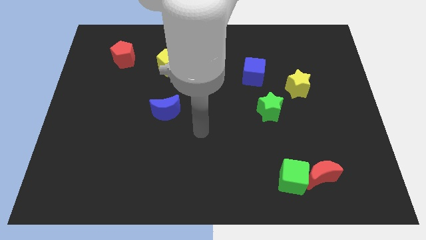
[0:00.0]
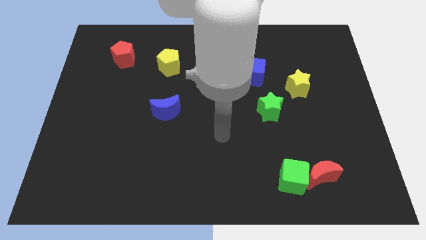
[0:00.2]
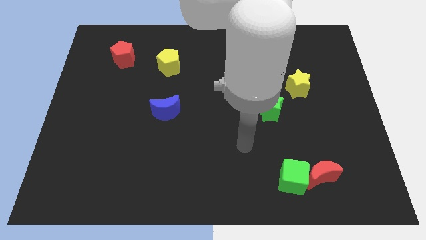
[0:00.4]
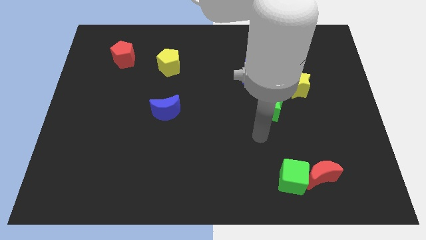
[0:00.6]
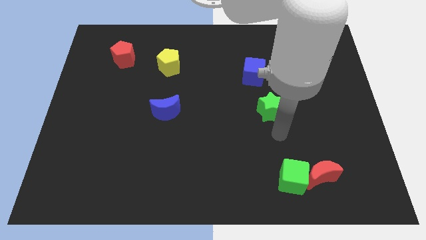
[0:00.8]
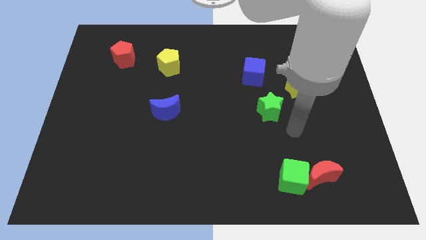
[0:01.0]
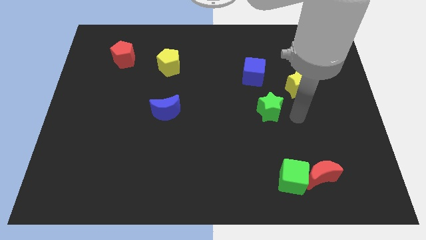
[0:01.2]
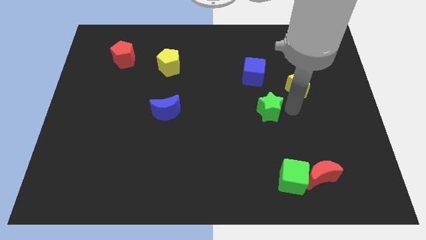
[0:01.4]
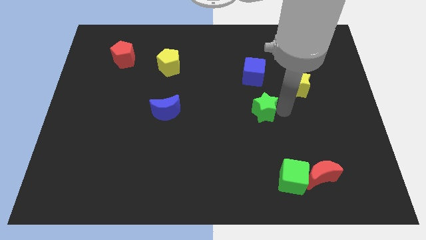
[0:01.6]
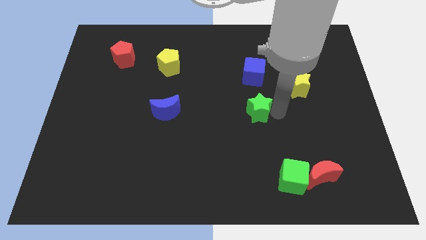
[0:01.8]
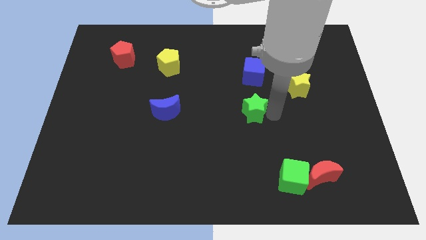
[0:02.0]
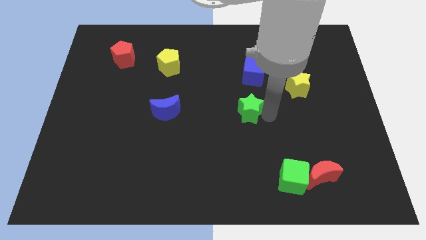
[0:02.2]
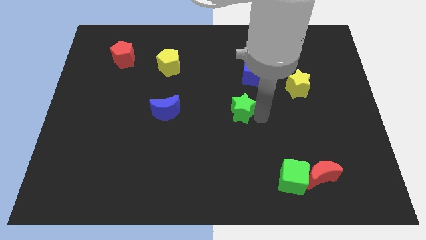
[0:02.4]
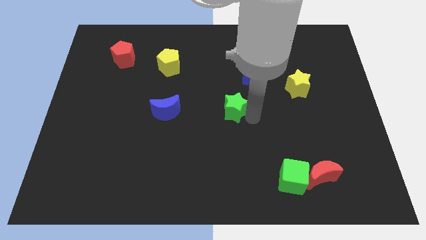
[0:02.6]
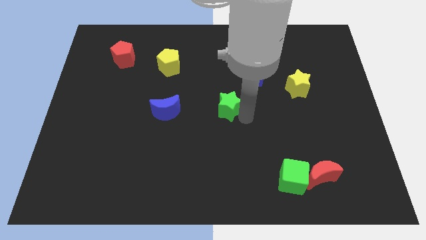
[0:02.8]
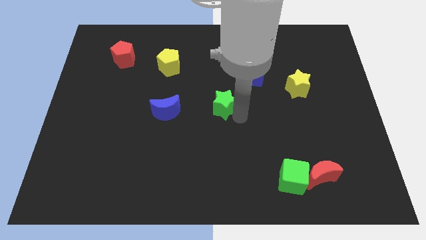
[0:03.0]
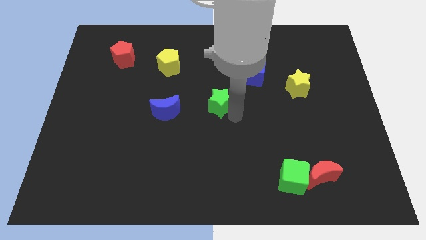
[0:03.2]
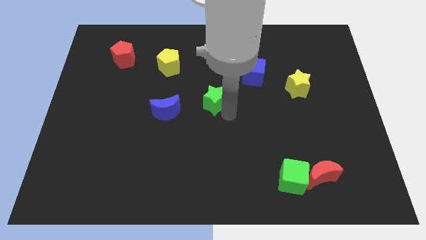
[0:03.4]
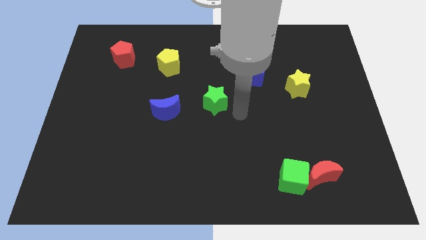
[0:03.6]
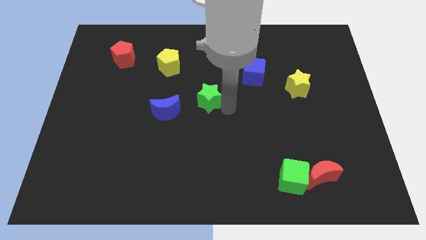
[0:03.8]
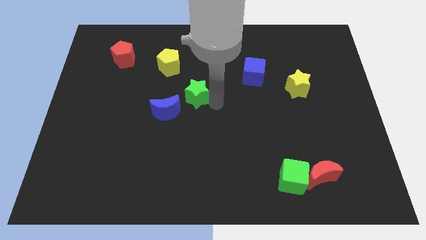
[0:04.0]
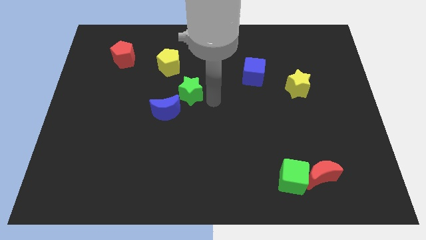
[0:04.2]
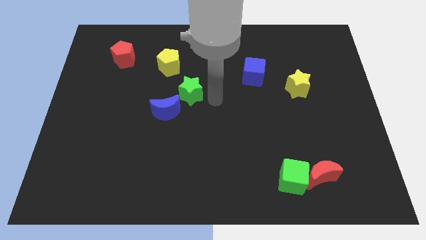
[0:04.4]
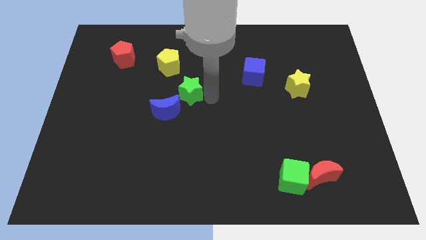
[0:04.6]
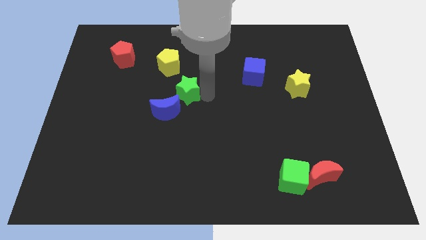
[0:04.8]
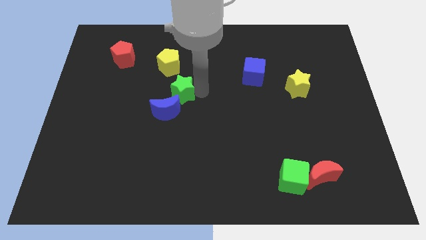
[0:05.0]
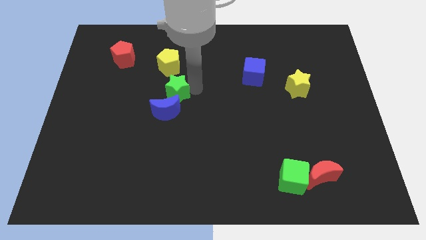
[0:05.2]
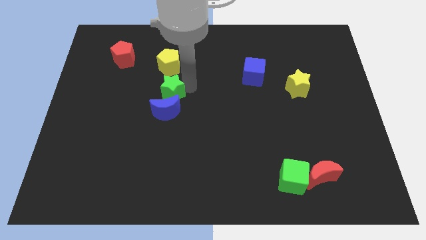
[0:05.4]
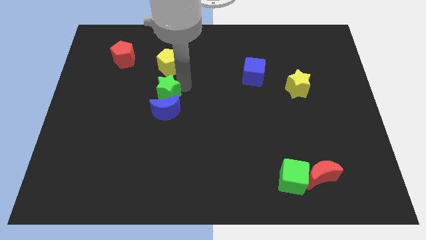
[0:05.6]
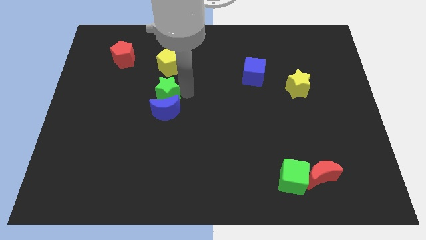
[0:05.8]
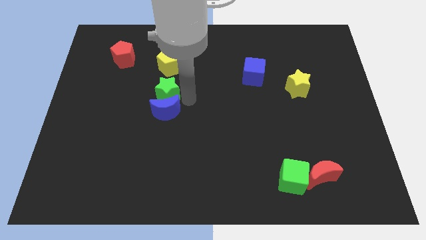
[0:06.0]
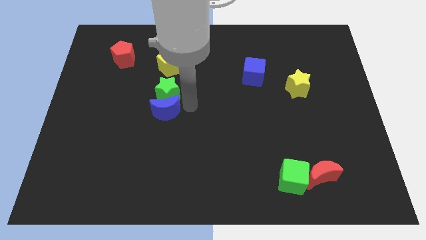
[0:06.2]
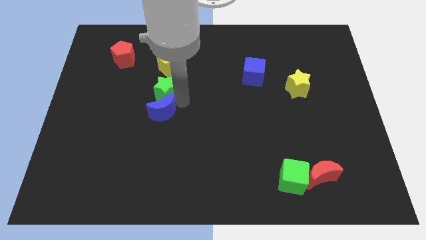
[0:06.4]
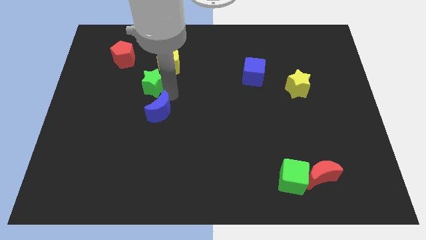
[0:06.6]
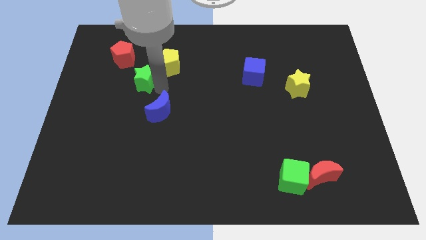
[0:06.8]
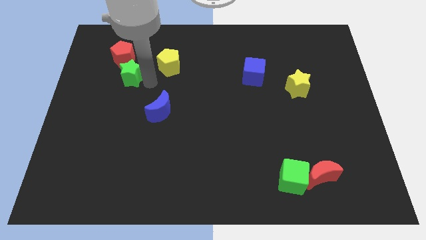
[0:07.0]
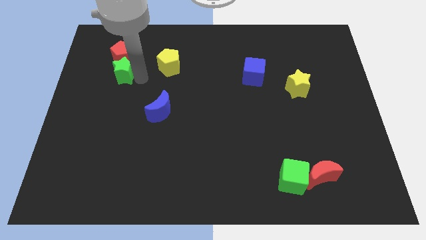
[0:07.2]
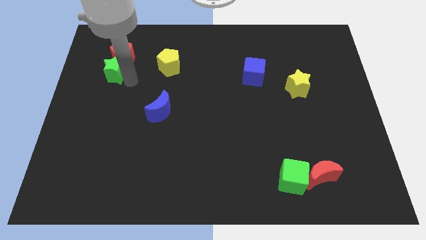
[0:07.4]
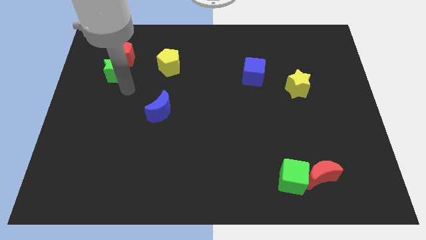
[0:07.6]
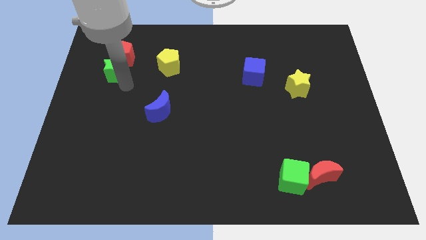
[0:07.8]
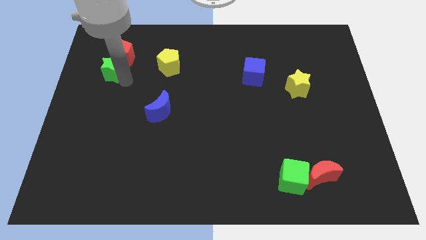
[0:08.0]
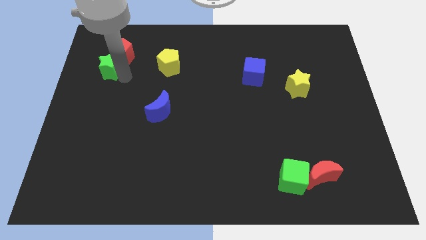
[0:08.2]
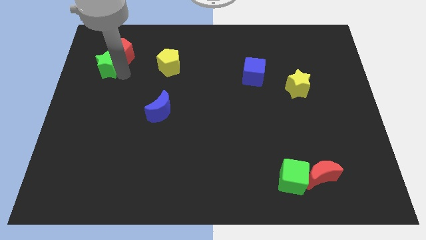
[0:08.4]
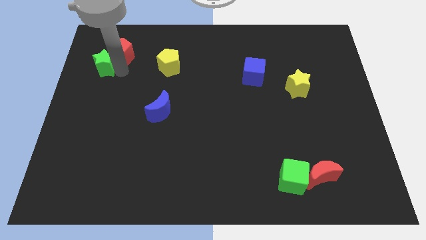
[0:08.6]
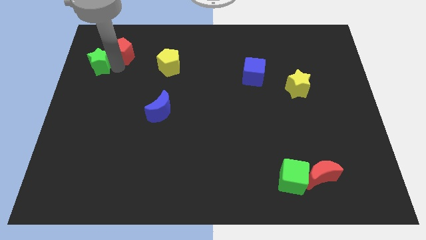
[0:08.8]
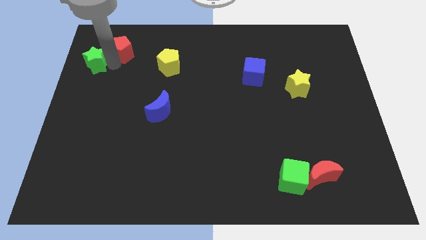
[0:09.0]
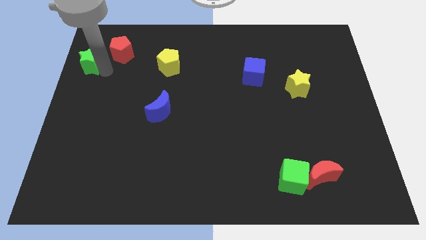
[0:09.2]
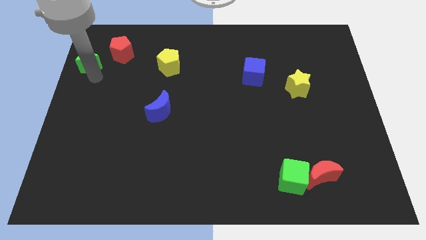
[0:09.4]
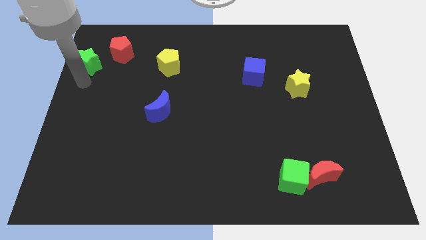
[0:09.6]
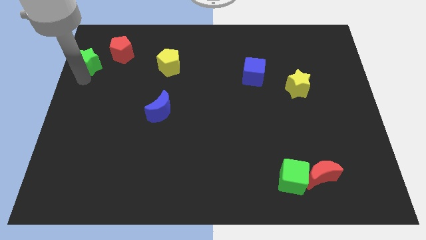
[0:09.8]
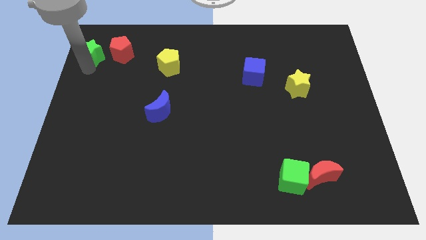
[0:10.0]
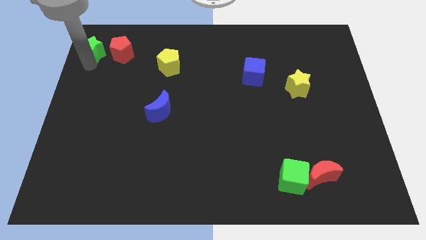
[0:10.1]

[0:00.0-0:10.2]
slide the green star to the upper left corner

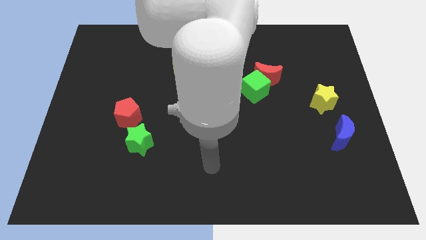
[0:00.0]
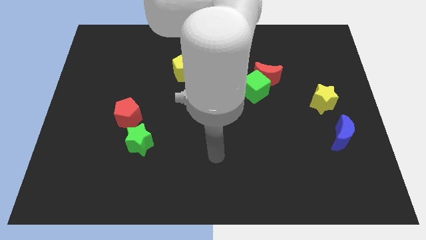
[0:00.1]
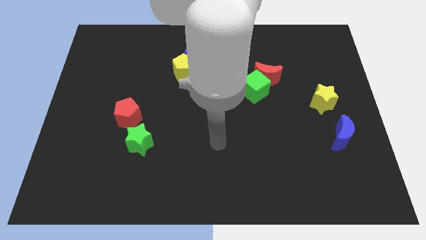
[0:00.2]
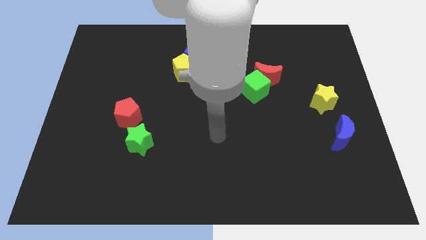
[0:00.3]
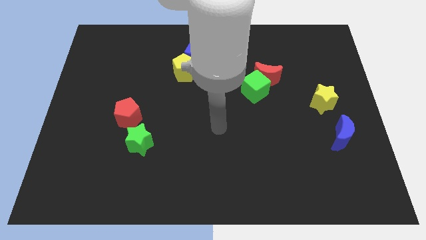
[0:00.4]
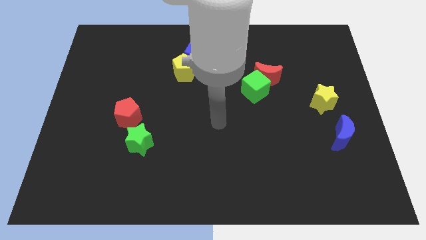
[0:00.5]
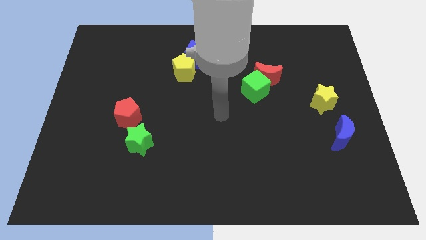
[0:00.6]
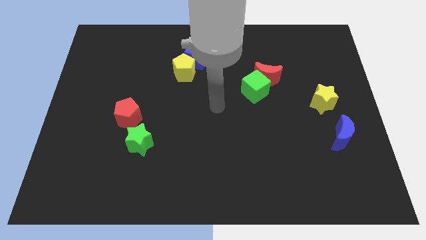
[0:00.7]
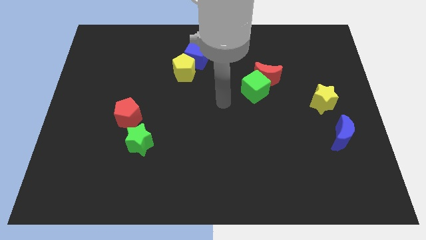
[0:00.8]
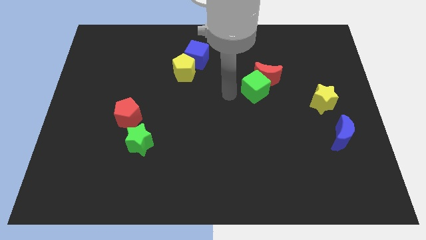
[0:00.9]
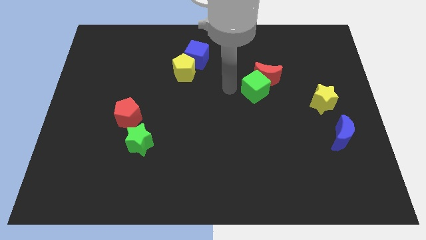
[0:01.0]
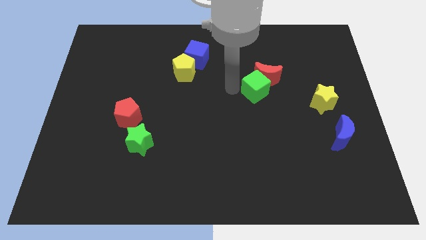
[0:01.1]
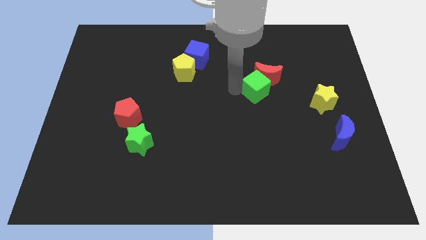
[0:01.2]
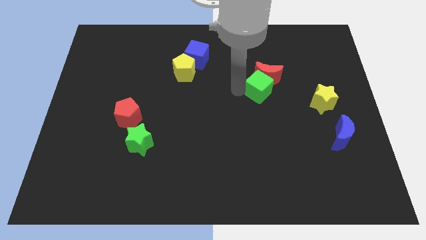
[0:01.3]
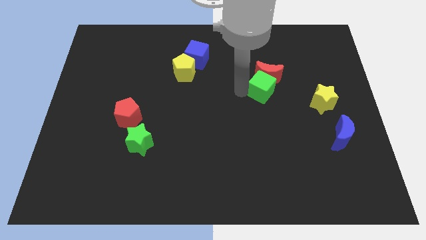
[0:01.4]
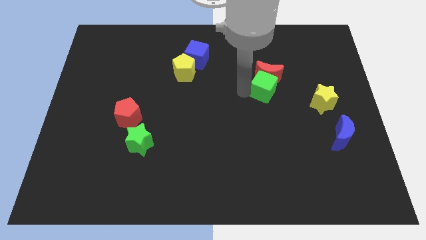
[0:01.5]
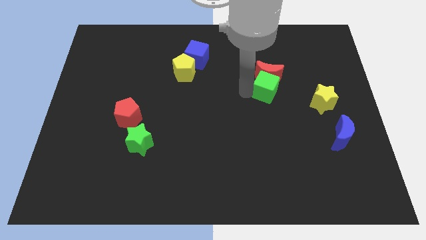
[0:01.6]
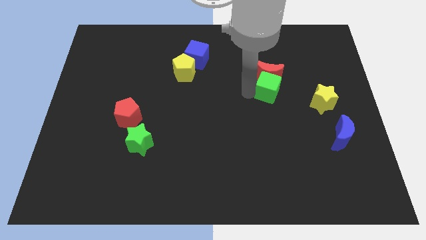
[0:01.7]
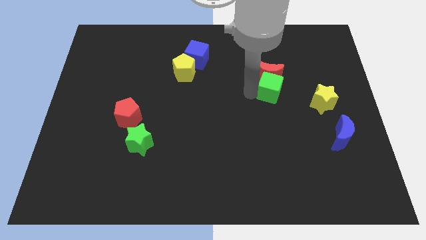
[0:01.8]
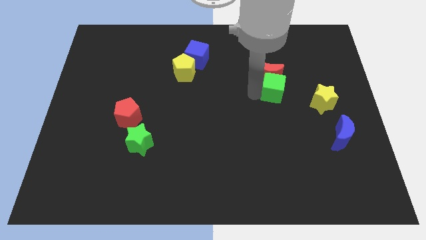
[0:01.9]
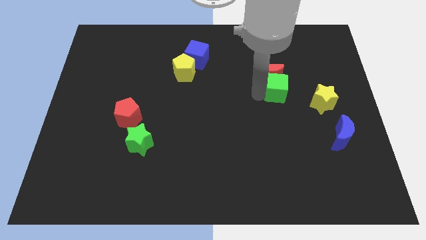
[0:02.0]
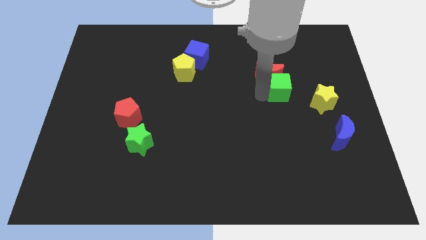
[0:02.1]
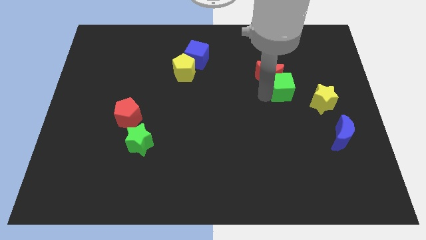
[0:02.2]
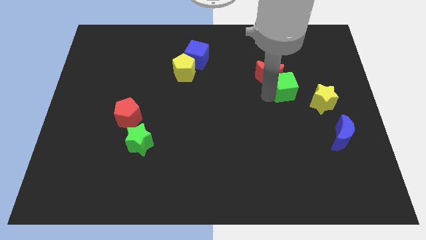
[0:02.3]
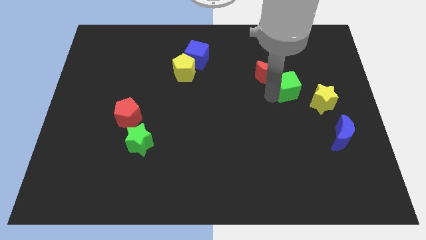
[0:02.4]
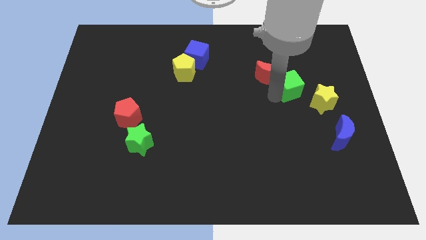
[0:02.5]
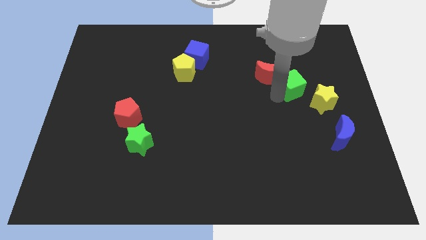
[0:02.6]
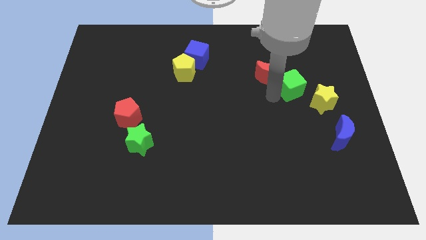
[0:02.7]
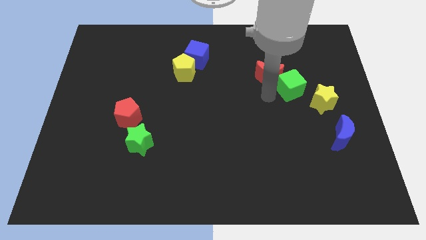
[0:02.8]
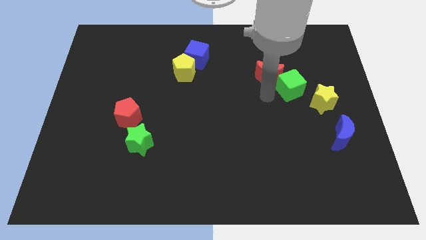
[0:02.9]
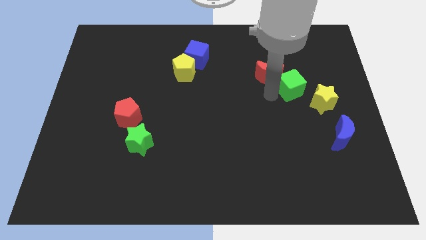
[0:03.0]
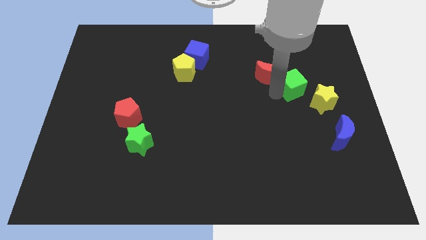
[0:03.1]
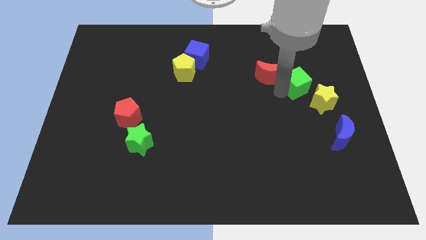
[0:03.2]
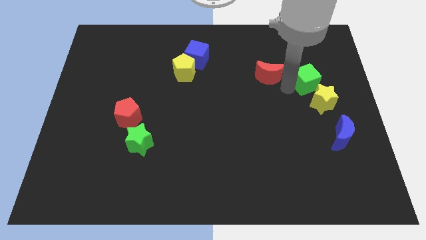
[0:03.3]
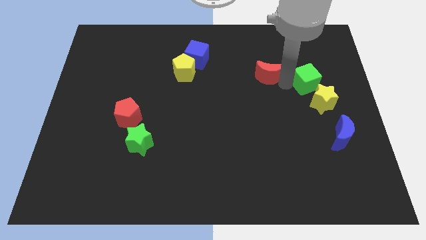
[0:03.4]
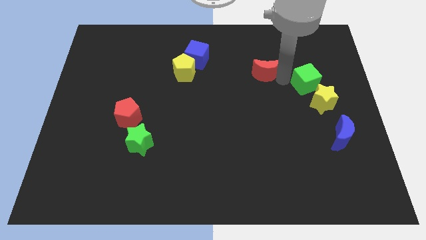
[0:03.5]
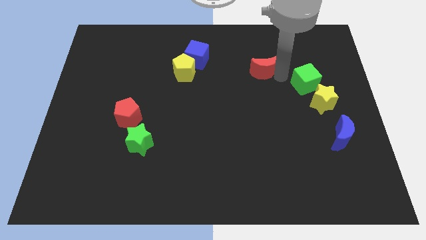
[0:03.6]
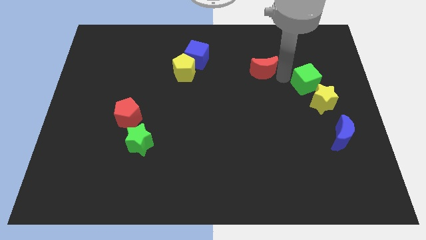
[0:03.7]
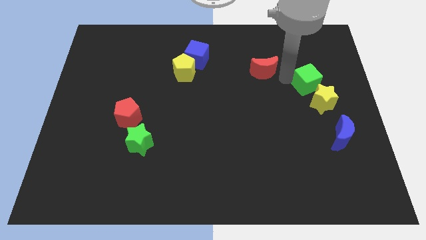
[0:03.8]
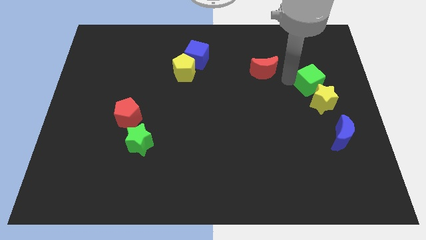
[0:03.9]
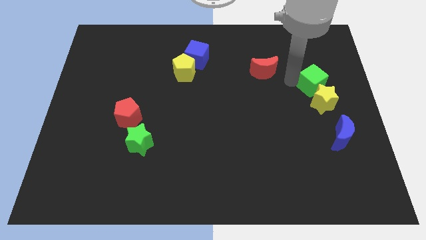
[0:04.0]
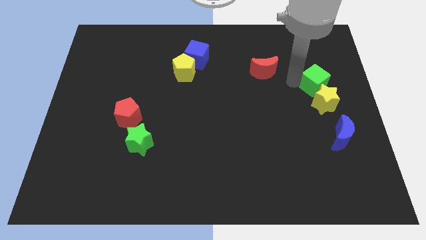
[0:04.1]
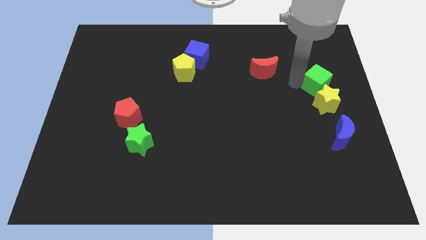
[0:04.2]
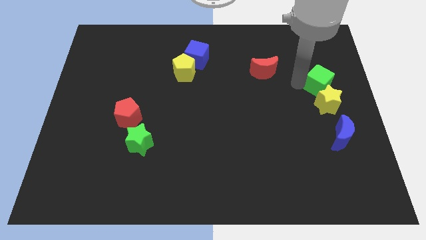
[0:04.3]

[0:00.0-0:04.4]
put the green cube to the right side of the board
